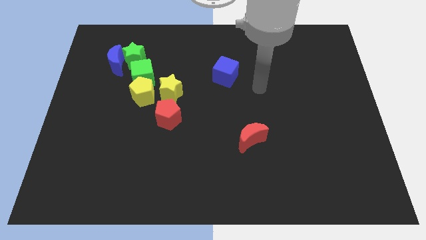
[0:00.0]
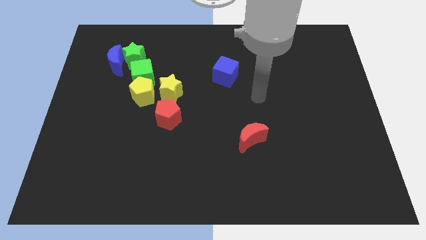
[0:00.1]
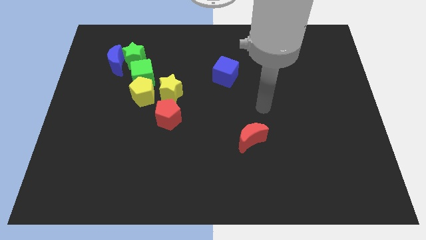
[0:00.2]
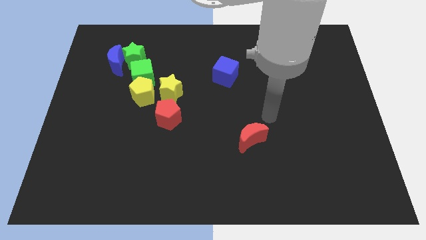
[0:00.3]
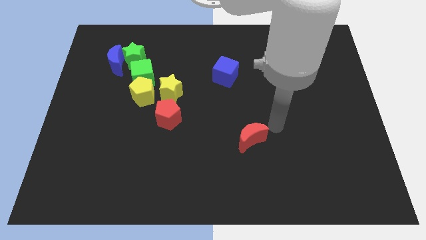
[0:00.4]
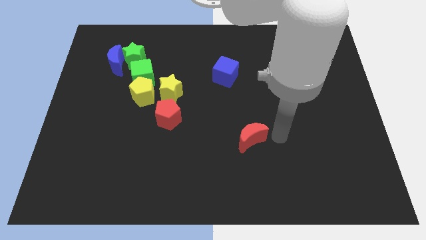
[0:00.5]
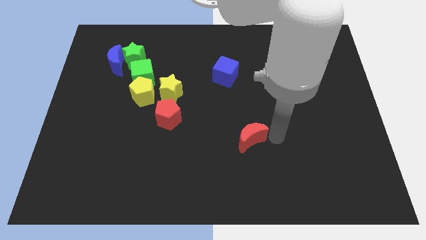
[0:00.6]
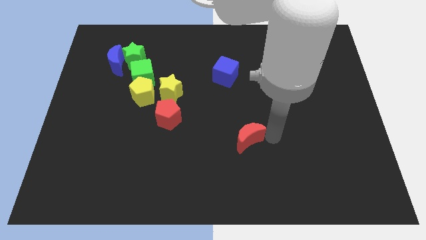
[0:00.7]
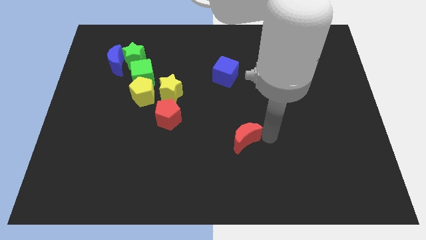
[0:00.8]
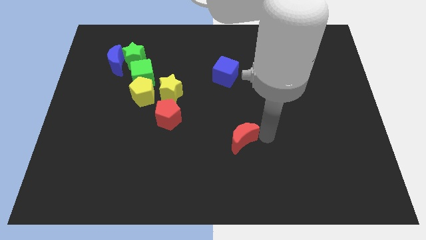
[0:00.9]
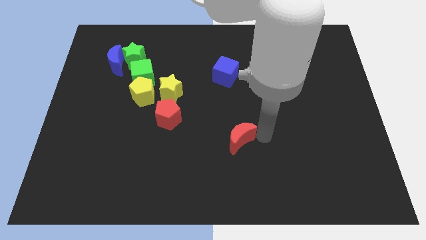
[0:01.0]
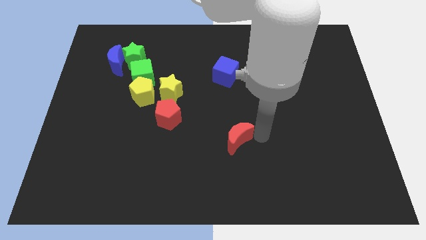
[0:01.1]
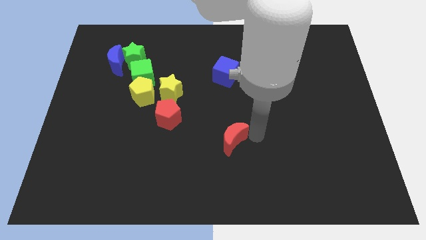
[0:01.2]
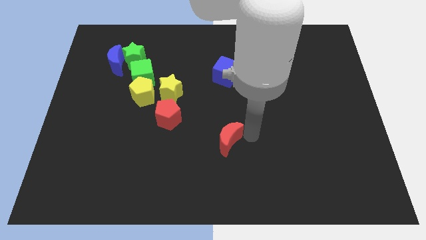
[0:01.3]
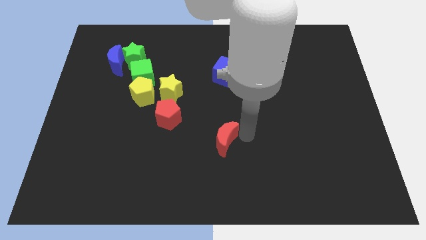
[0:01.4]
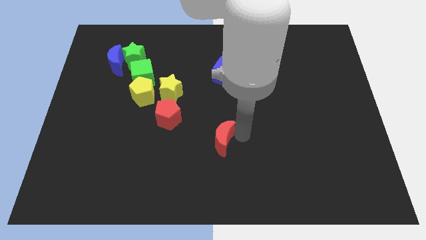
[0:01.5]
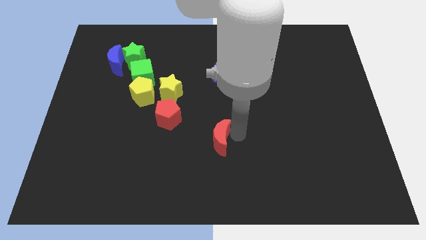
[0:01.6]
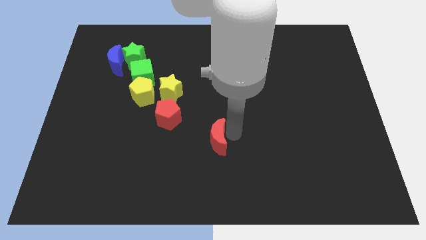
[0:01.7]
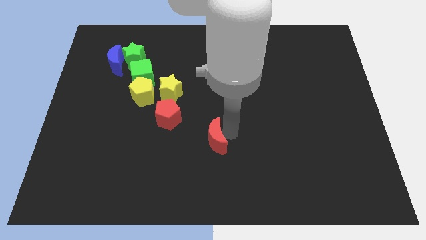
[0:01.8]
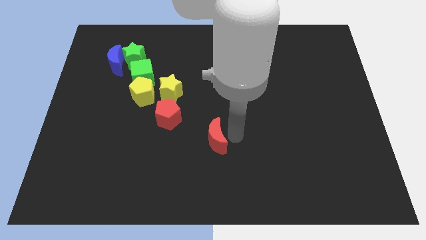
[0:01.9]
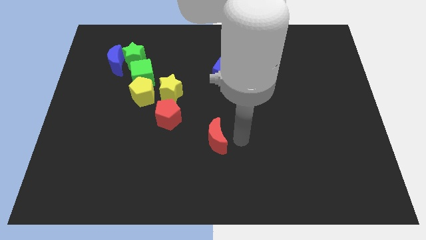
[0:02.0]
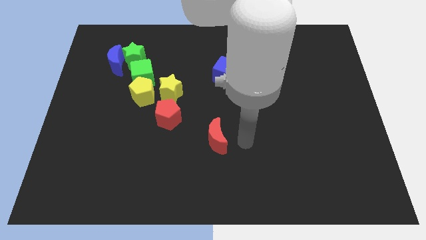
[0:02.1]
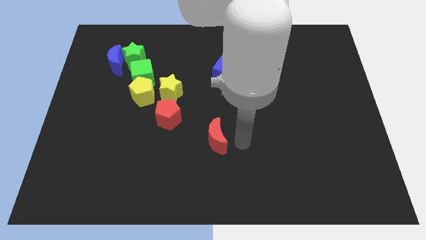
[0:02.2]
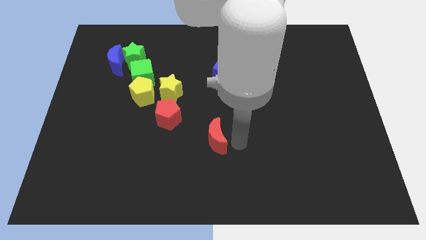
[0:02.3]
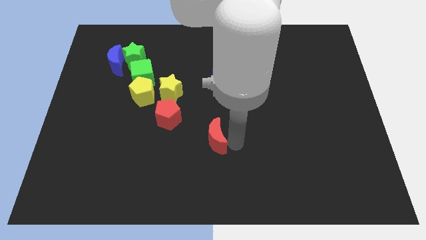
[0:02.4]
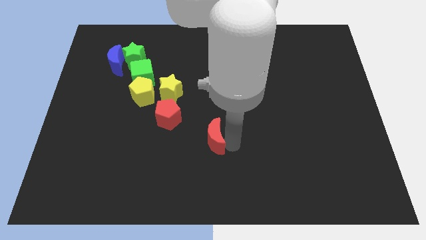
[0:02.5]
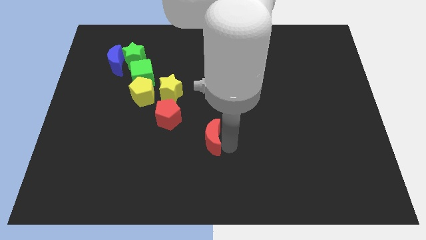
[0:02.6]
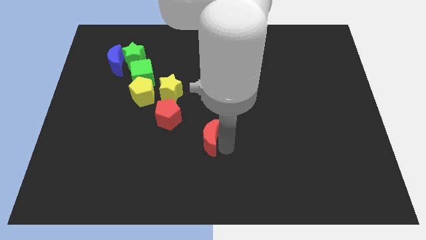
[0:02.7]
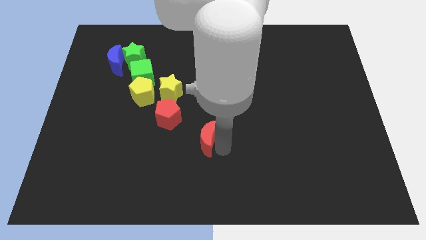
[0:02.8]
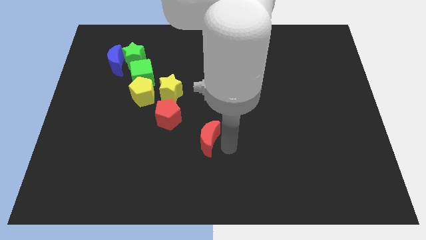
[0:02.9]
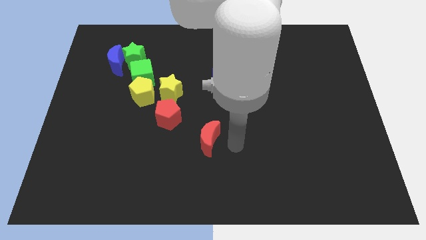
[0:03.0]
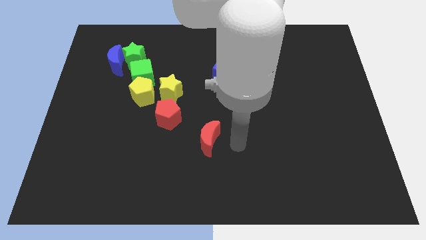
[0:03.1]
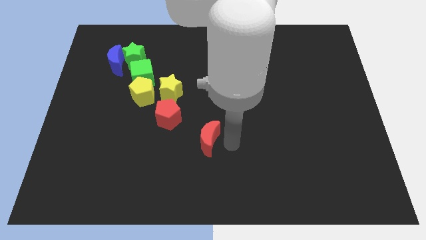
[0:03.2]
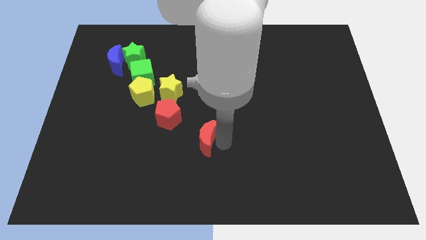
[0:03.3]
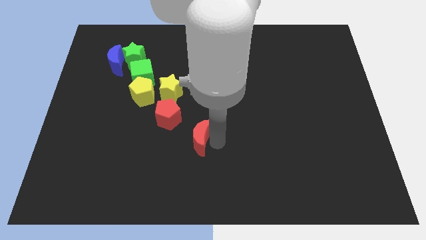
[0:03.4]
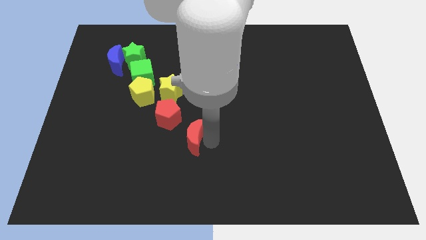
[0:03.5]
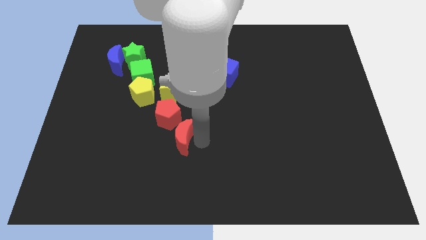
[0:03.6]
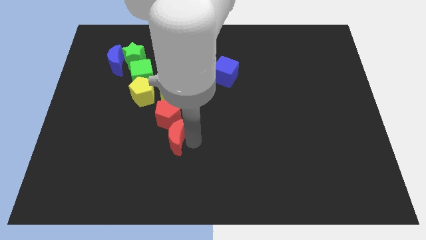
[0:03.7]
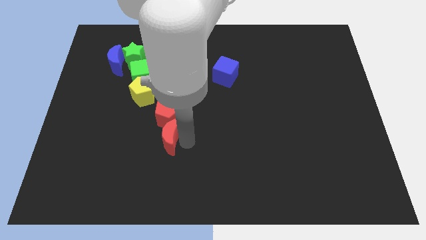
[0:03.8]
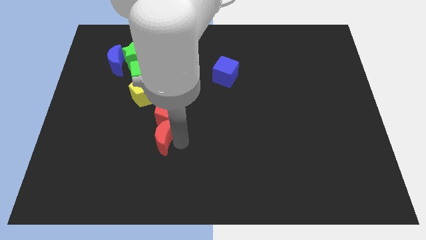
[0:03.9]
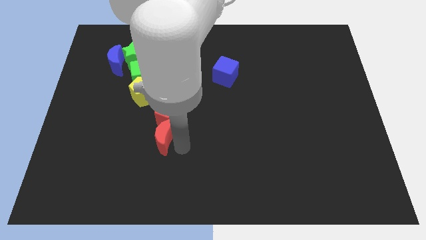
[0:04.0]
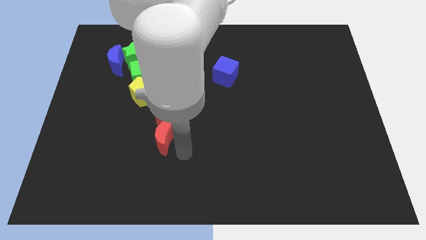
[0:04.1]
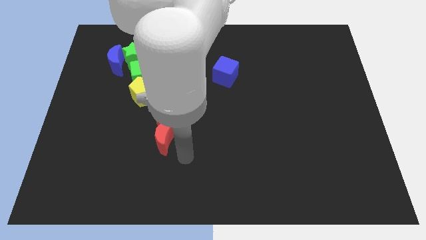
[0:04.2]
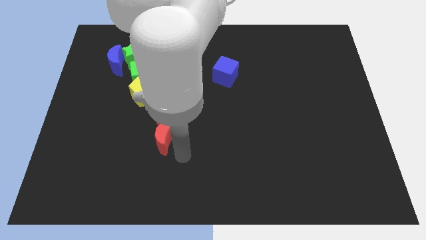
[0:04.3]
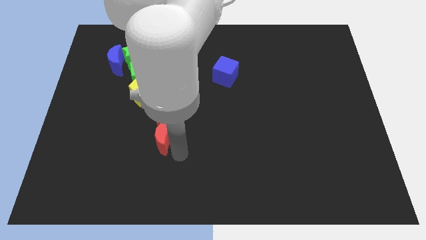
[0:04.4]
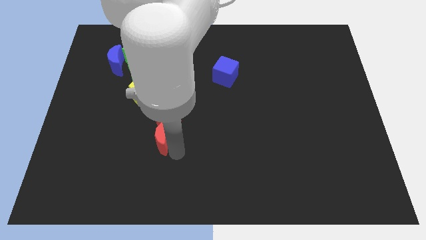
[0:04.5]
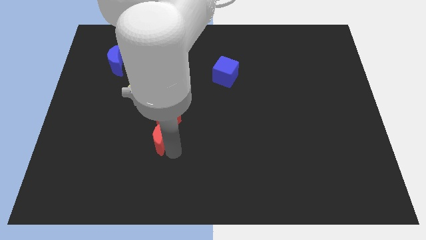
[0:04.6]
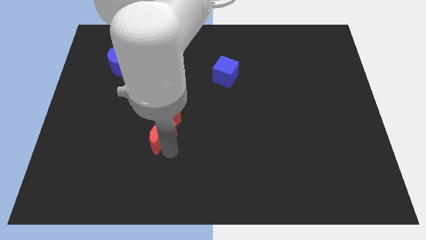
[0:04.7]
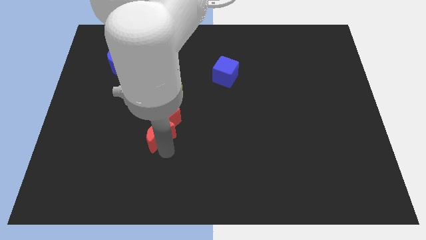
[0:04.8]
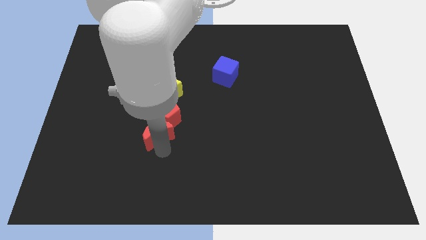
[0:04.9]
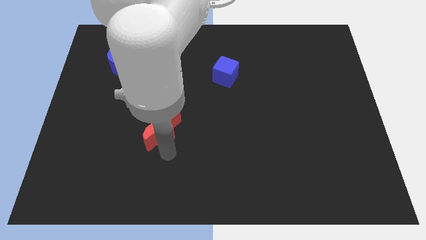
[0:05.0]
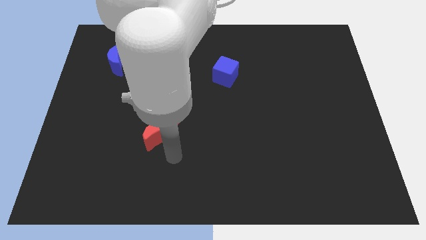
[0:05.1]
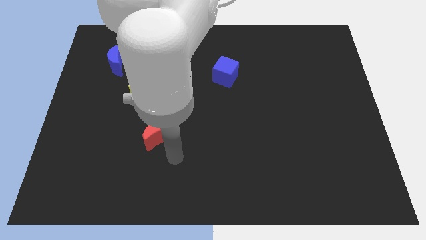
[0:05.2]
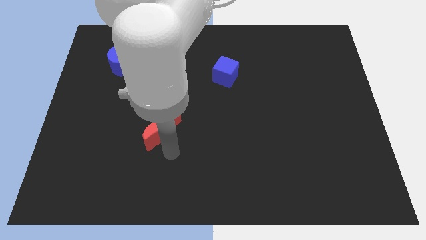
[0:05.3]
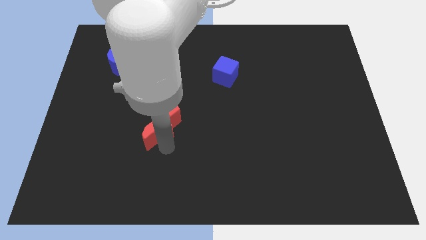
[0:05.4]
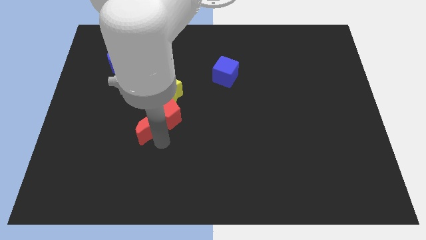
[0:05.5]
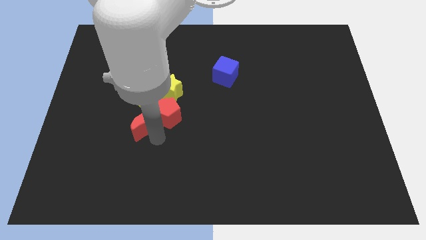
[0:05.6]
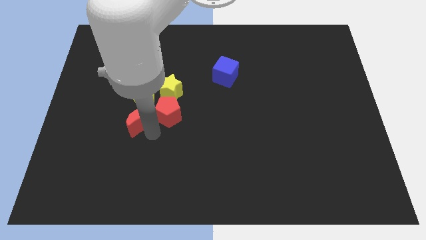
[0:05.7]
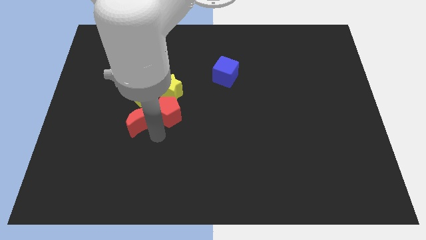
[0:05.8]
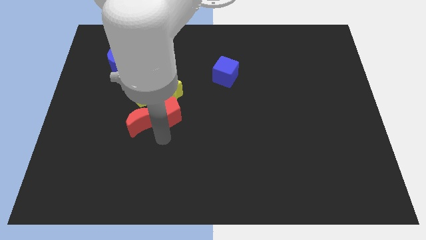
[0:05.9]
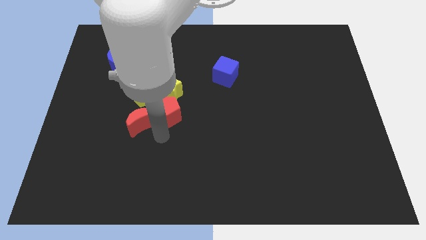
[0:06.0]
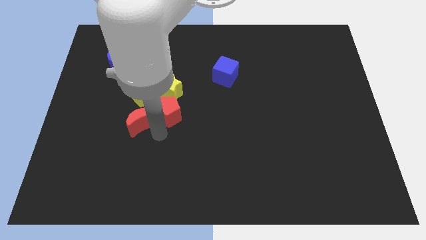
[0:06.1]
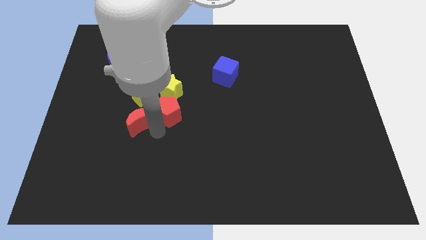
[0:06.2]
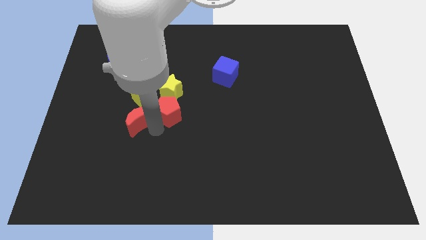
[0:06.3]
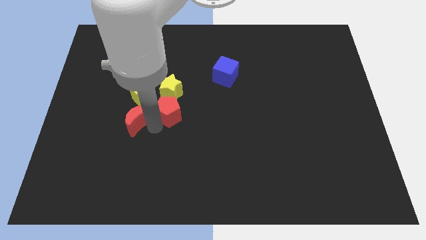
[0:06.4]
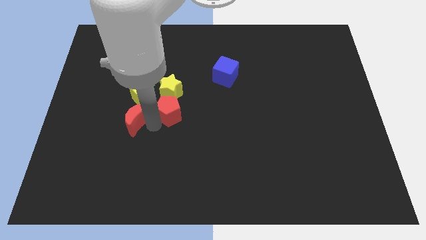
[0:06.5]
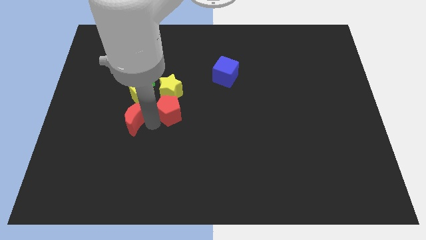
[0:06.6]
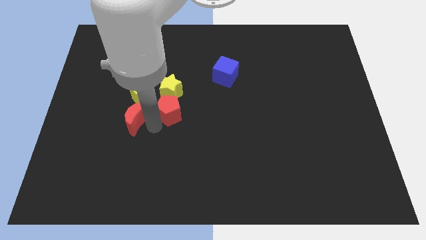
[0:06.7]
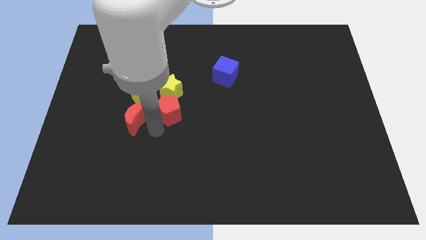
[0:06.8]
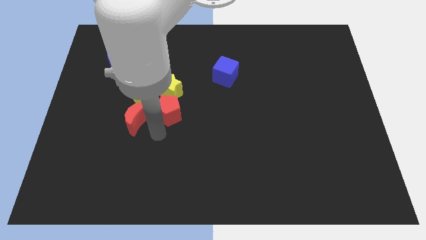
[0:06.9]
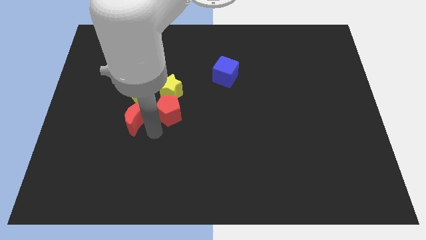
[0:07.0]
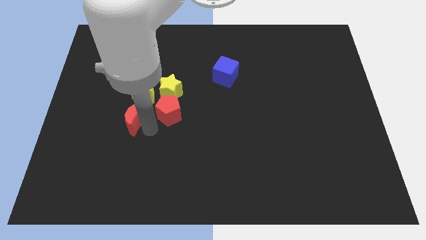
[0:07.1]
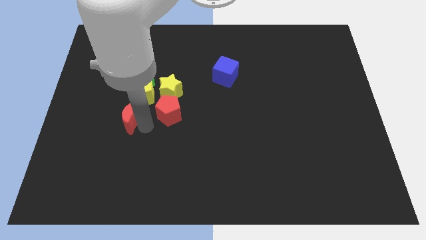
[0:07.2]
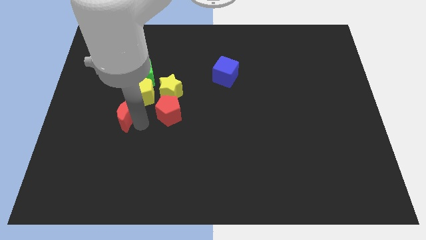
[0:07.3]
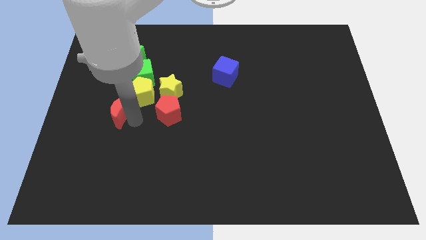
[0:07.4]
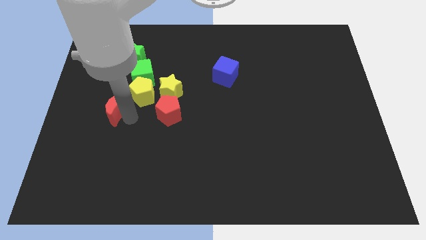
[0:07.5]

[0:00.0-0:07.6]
move the red moon just left of the yellow pentagon
